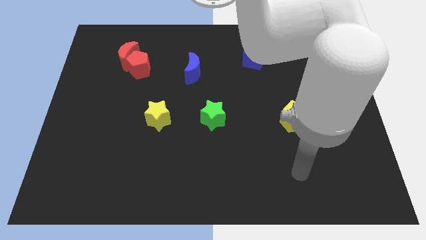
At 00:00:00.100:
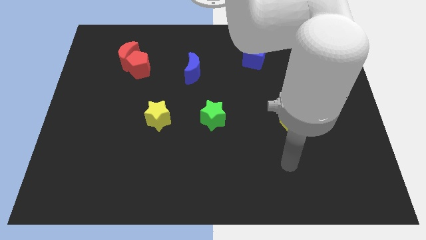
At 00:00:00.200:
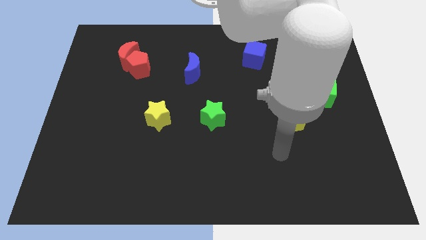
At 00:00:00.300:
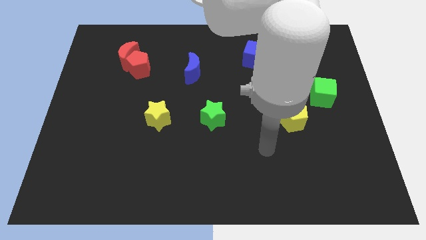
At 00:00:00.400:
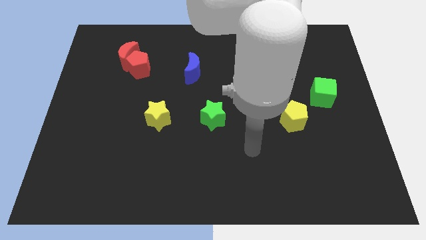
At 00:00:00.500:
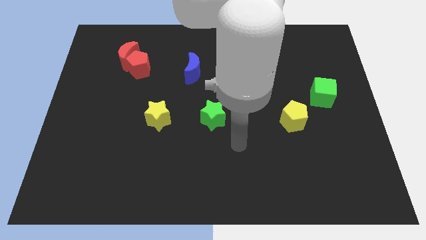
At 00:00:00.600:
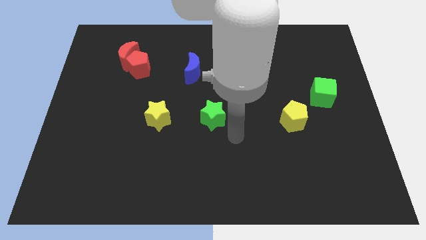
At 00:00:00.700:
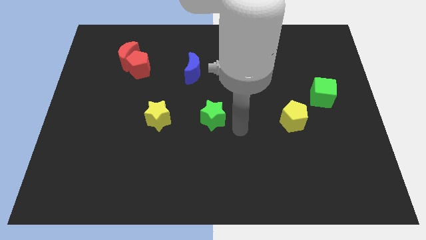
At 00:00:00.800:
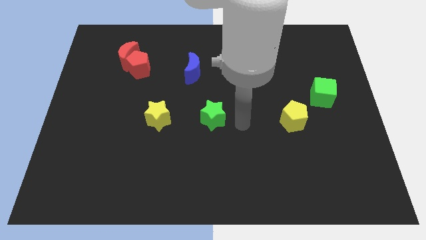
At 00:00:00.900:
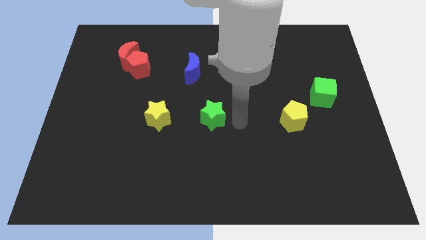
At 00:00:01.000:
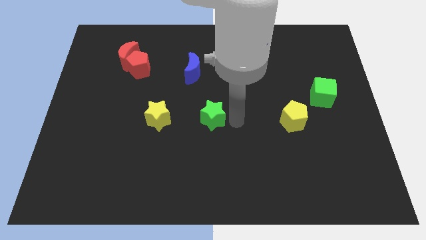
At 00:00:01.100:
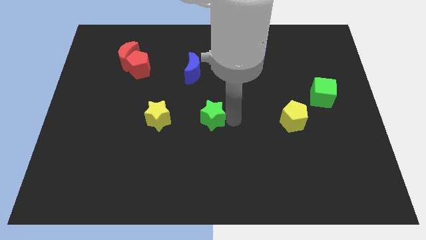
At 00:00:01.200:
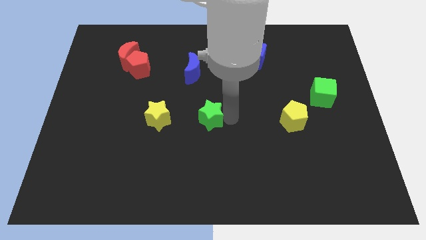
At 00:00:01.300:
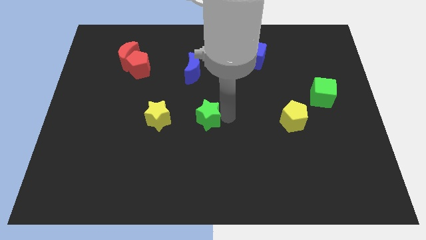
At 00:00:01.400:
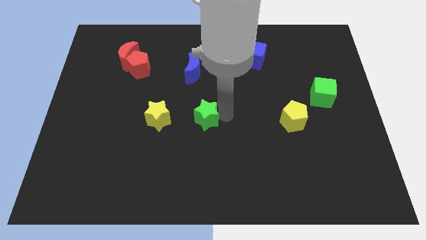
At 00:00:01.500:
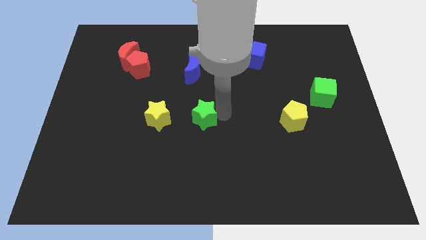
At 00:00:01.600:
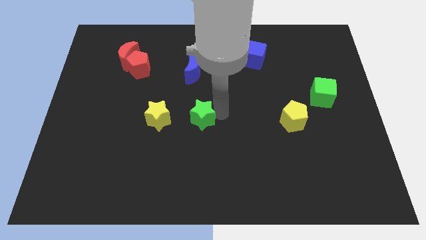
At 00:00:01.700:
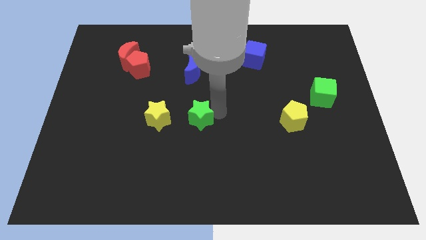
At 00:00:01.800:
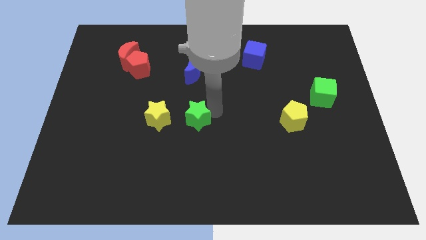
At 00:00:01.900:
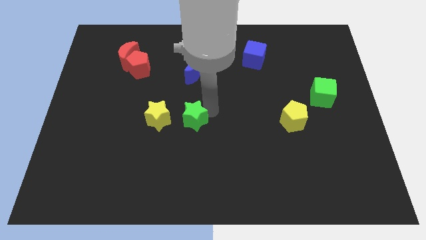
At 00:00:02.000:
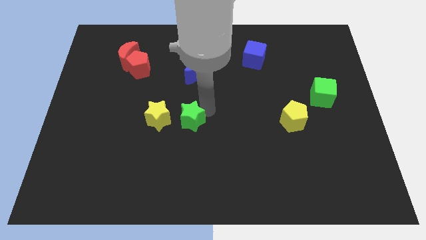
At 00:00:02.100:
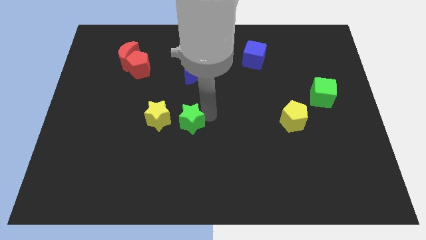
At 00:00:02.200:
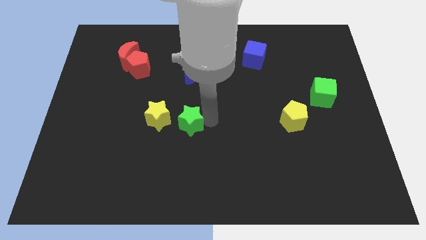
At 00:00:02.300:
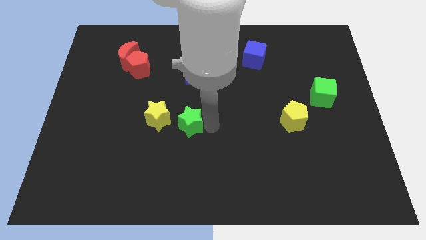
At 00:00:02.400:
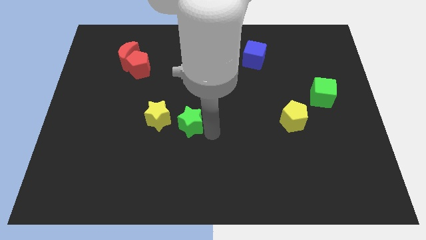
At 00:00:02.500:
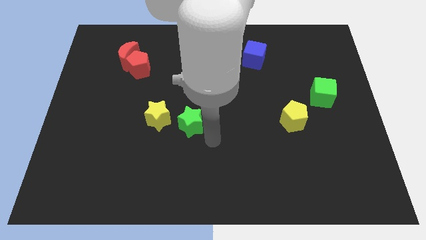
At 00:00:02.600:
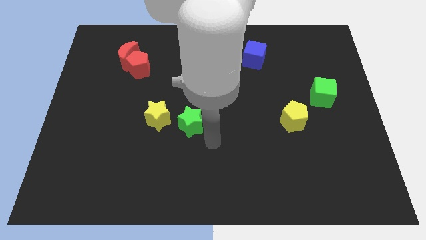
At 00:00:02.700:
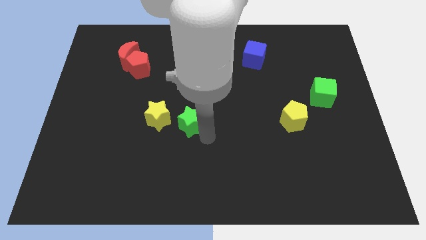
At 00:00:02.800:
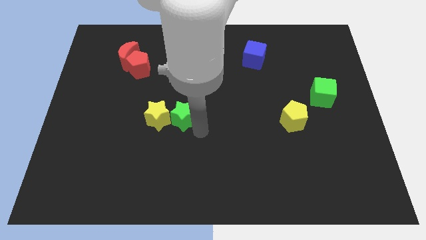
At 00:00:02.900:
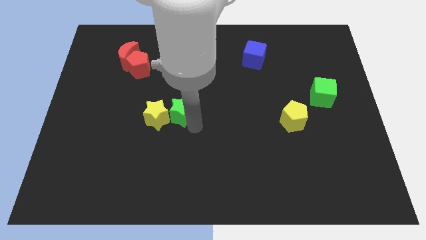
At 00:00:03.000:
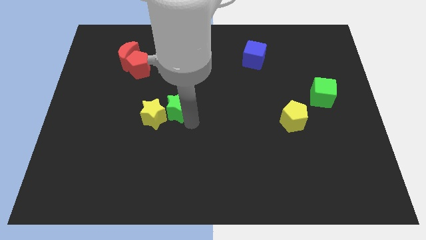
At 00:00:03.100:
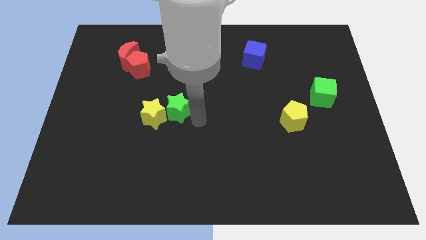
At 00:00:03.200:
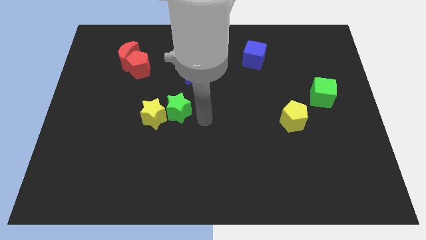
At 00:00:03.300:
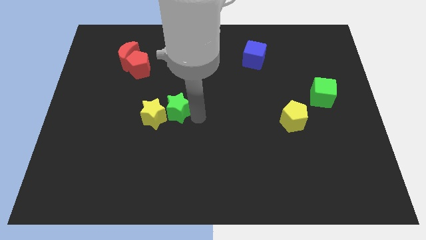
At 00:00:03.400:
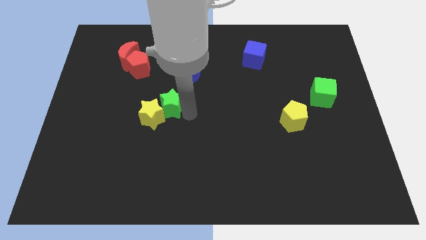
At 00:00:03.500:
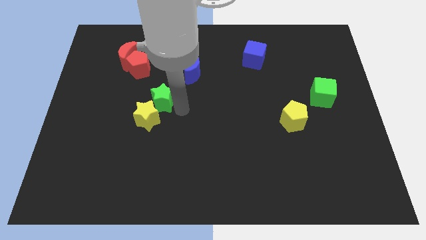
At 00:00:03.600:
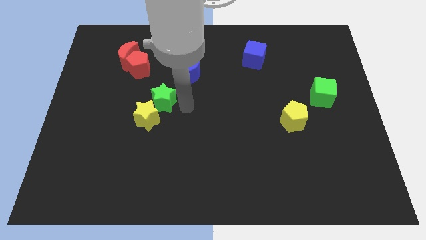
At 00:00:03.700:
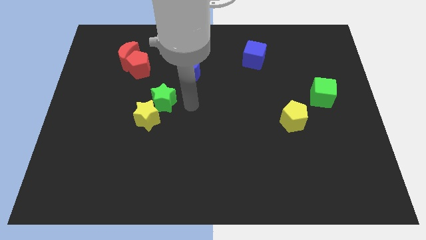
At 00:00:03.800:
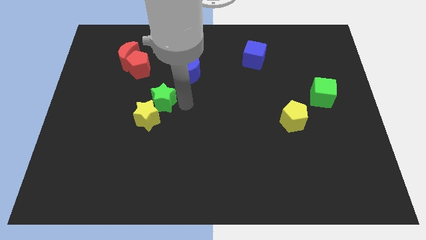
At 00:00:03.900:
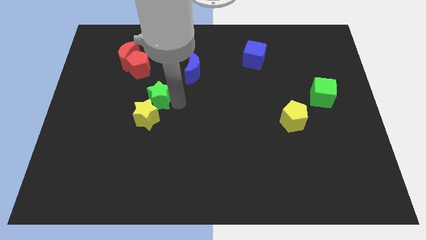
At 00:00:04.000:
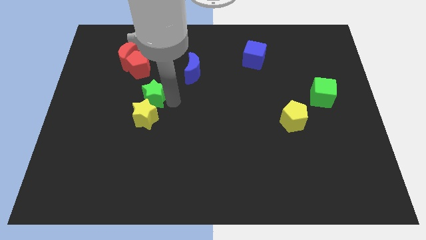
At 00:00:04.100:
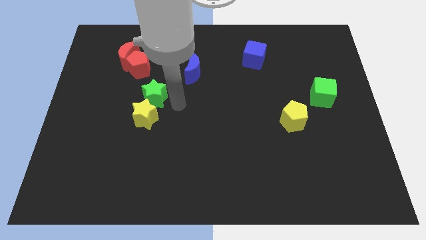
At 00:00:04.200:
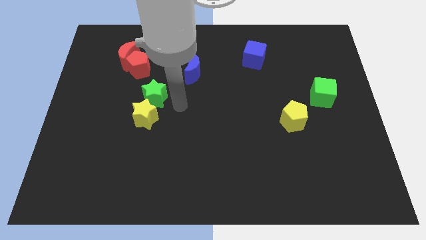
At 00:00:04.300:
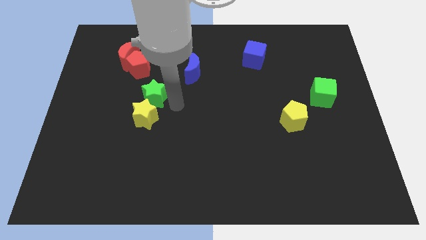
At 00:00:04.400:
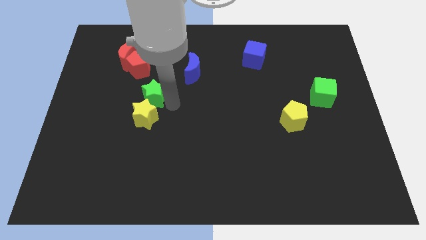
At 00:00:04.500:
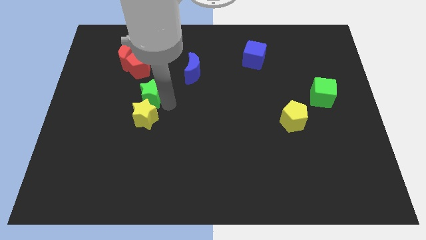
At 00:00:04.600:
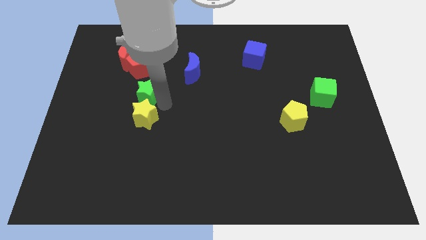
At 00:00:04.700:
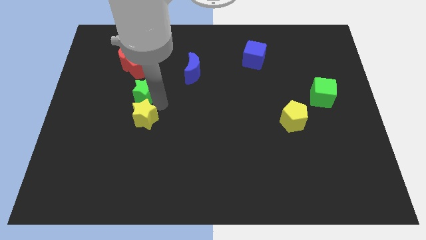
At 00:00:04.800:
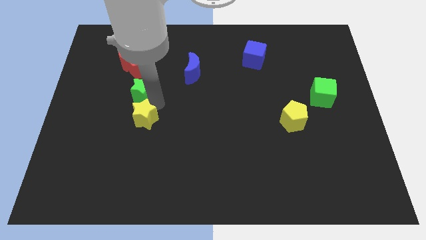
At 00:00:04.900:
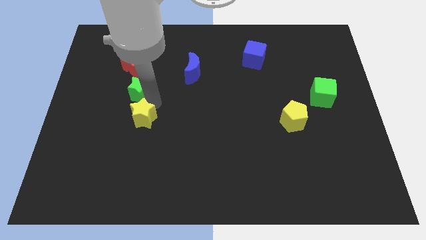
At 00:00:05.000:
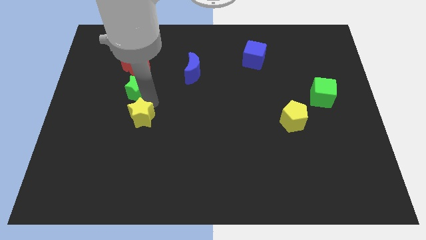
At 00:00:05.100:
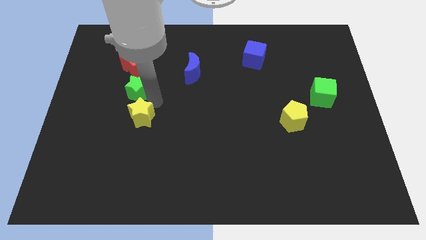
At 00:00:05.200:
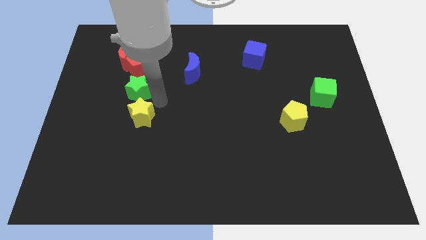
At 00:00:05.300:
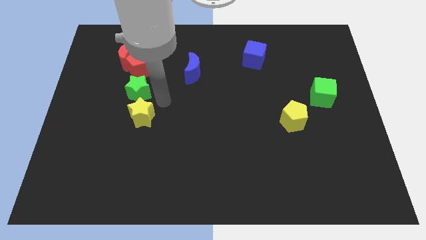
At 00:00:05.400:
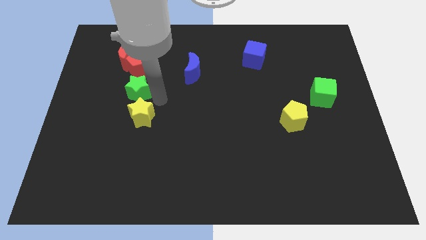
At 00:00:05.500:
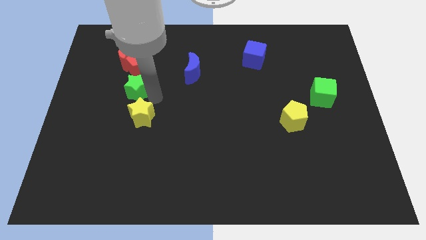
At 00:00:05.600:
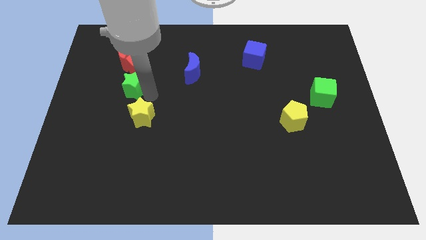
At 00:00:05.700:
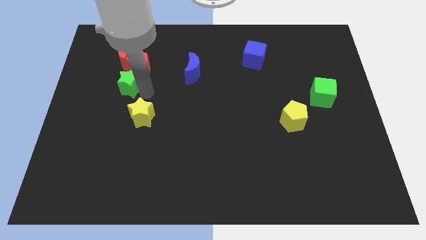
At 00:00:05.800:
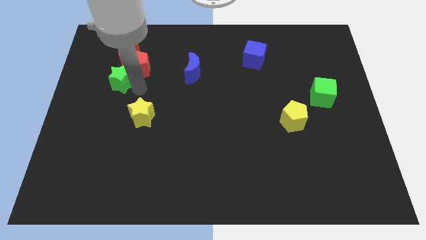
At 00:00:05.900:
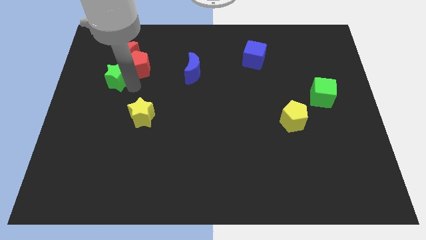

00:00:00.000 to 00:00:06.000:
push the green star to the bottom left side of the red moon

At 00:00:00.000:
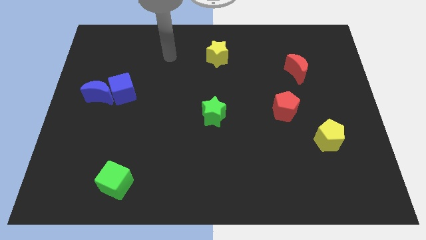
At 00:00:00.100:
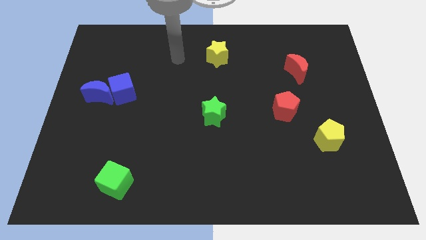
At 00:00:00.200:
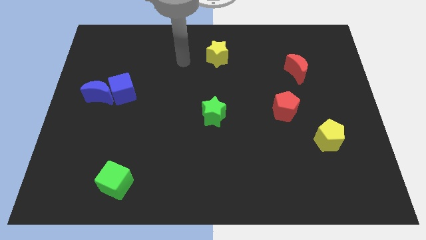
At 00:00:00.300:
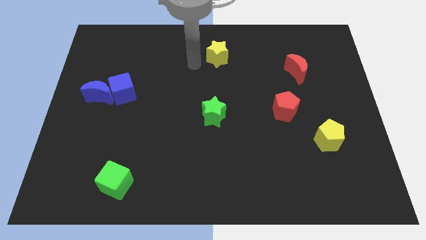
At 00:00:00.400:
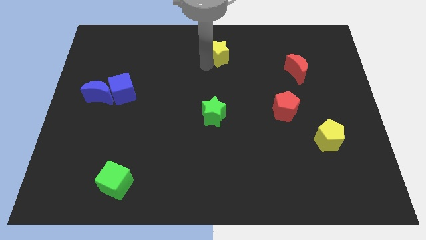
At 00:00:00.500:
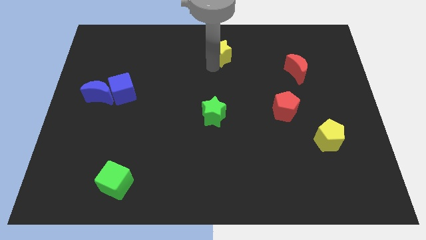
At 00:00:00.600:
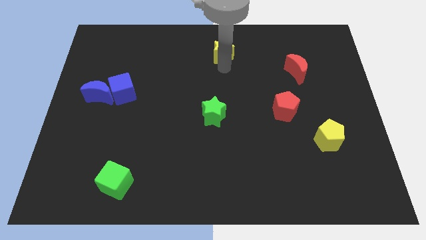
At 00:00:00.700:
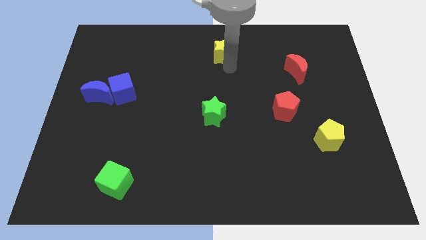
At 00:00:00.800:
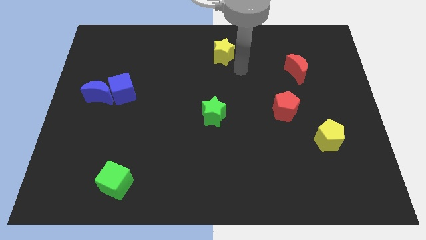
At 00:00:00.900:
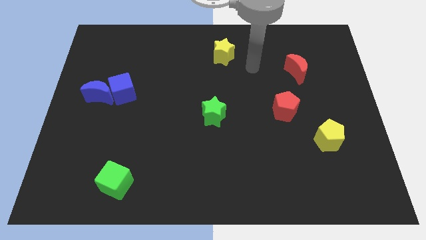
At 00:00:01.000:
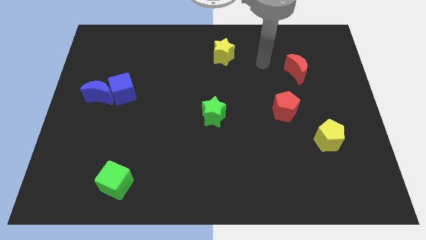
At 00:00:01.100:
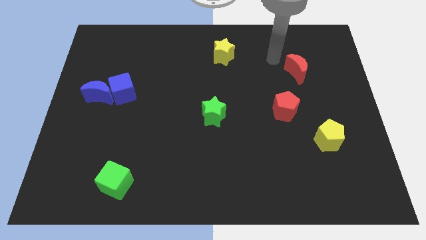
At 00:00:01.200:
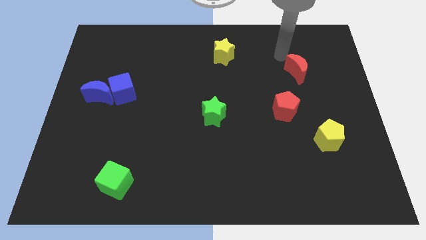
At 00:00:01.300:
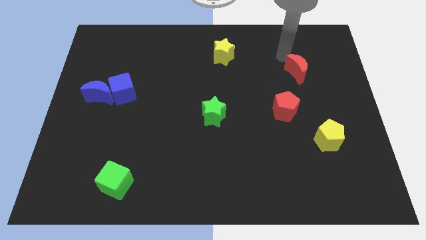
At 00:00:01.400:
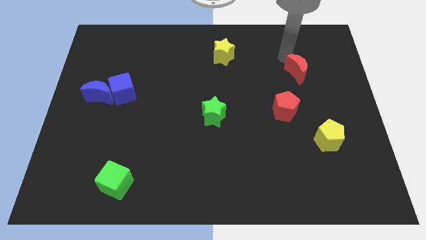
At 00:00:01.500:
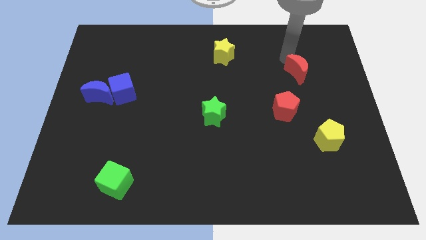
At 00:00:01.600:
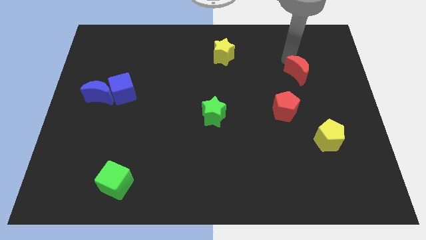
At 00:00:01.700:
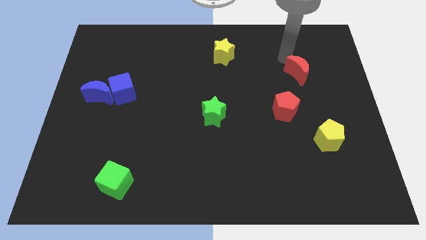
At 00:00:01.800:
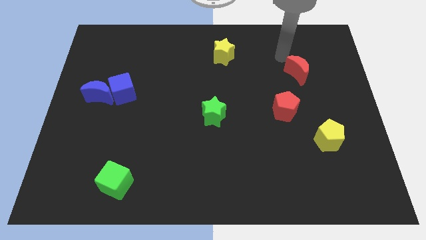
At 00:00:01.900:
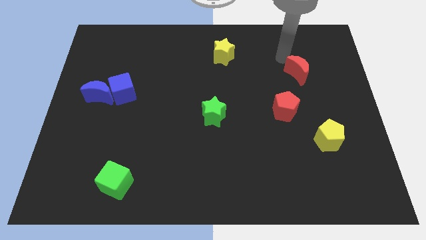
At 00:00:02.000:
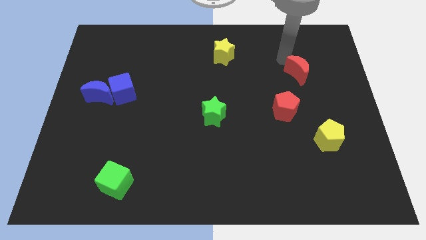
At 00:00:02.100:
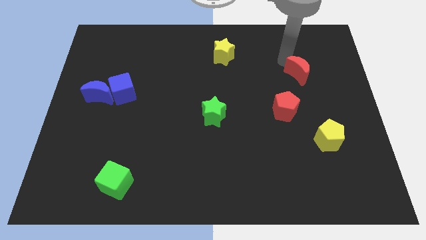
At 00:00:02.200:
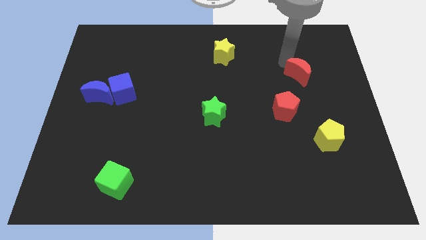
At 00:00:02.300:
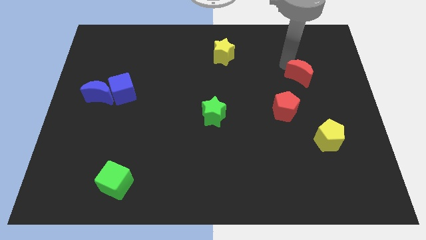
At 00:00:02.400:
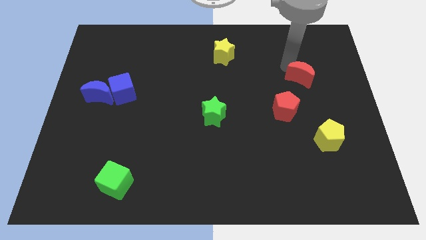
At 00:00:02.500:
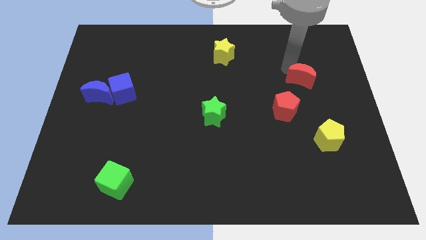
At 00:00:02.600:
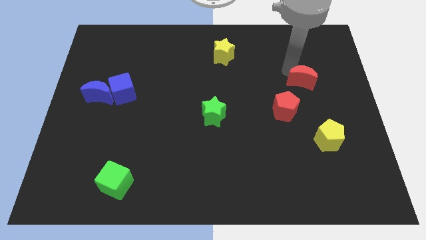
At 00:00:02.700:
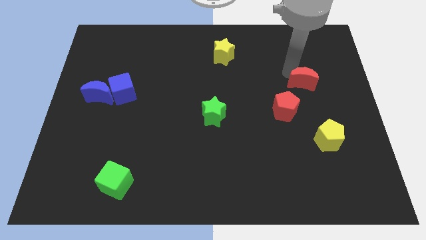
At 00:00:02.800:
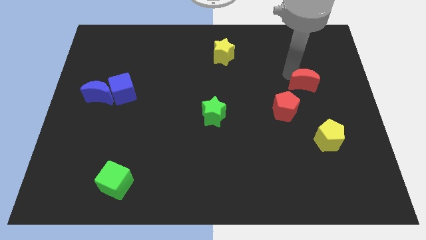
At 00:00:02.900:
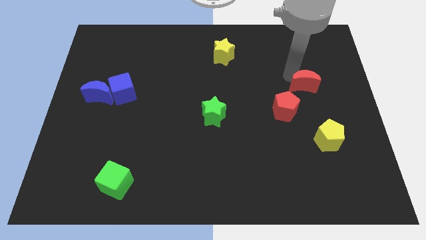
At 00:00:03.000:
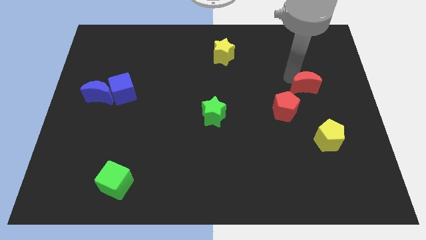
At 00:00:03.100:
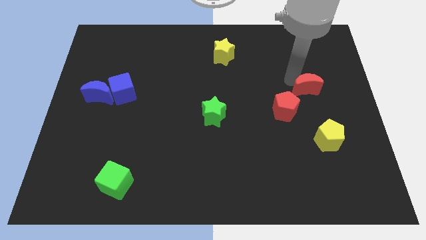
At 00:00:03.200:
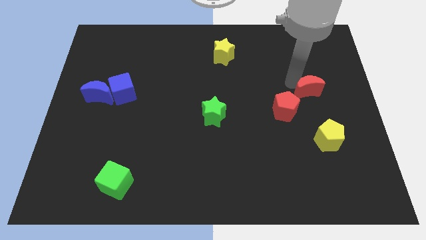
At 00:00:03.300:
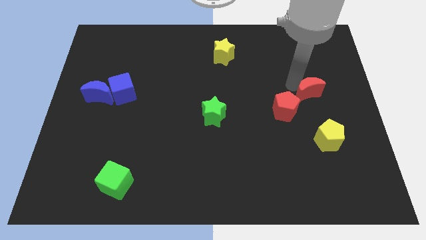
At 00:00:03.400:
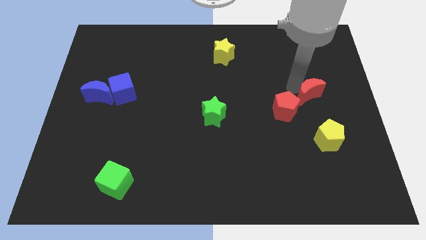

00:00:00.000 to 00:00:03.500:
push the red moon to the right side of the red pentagon
